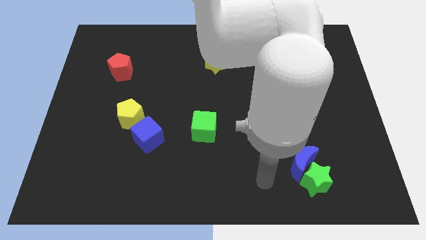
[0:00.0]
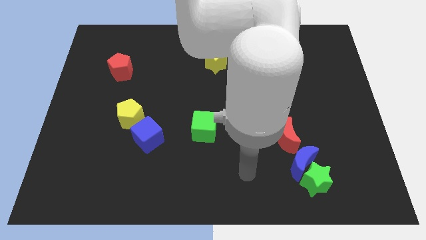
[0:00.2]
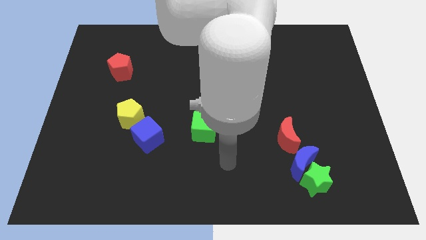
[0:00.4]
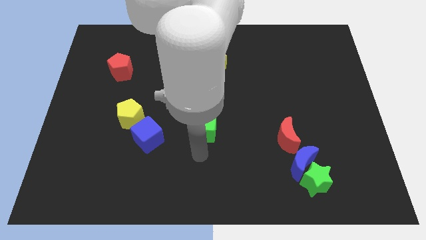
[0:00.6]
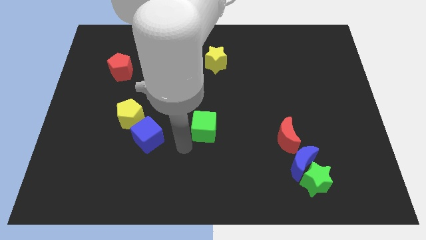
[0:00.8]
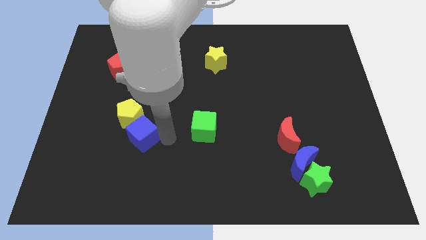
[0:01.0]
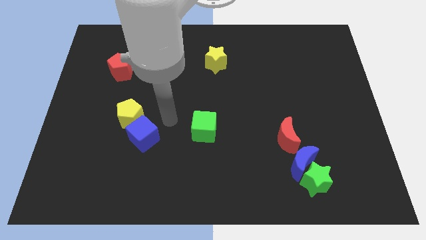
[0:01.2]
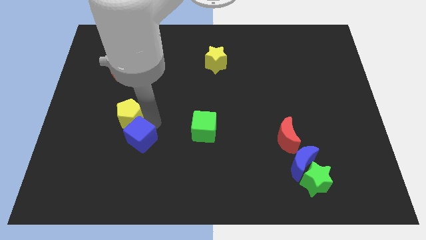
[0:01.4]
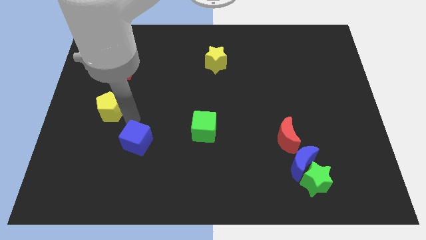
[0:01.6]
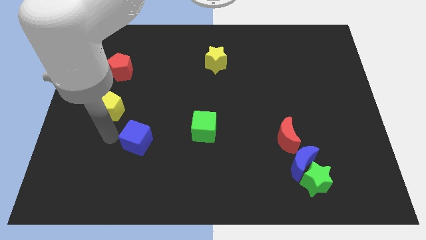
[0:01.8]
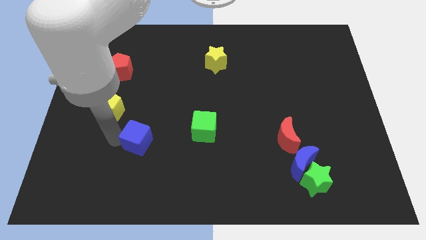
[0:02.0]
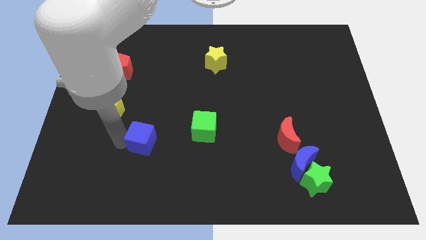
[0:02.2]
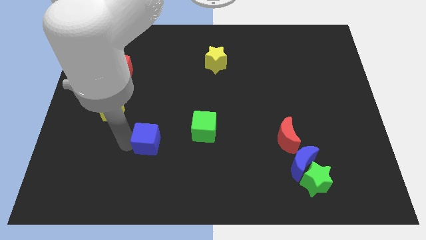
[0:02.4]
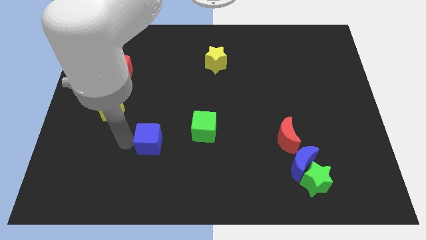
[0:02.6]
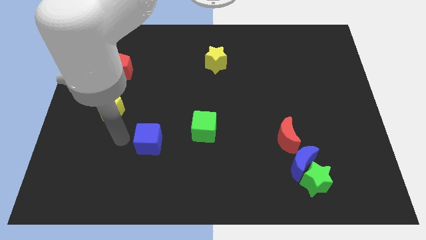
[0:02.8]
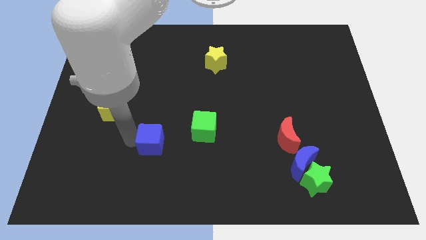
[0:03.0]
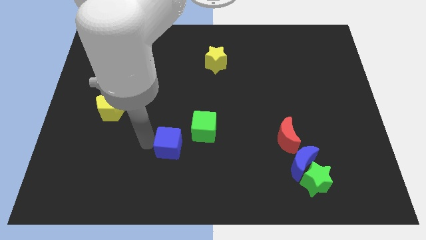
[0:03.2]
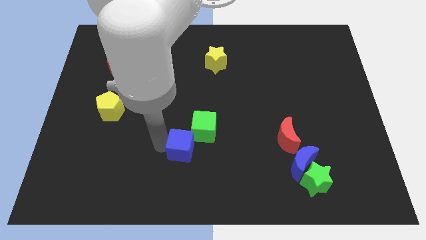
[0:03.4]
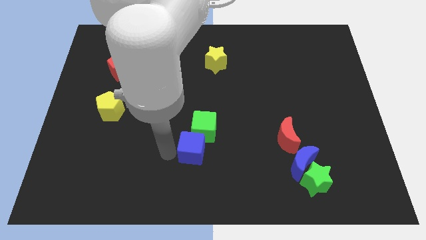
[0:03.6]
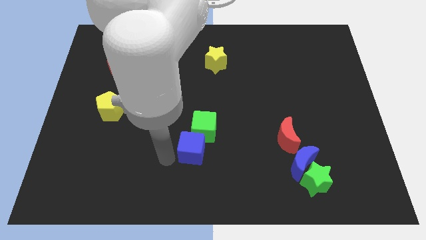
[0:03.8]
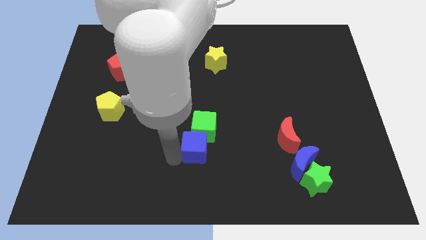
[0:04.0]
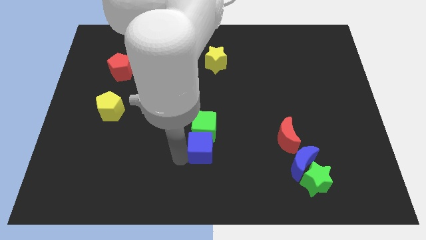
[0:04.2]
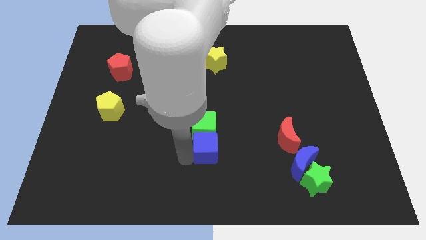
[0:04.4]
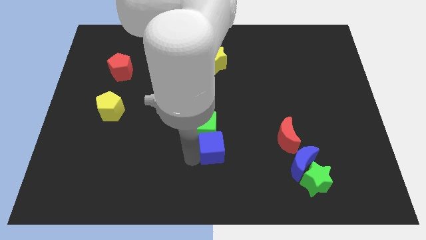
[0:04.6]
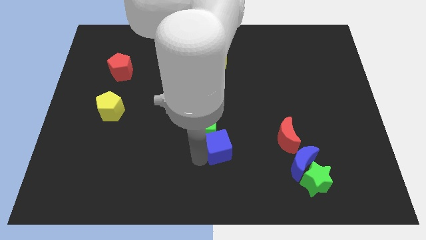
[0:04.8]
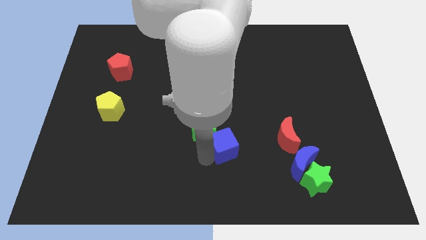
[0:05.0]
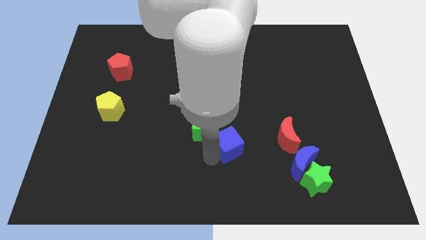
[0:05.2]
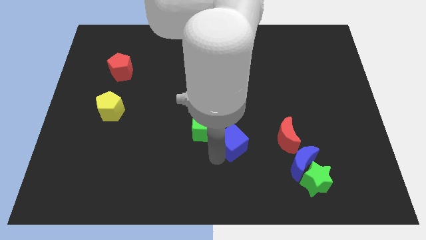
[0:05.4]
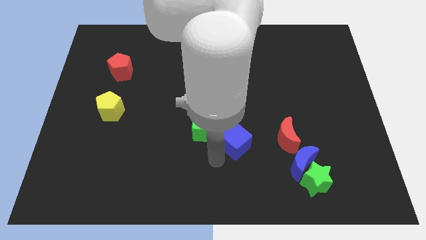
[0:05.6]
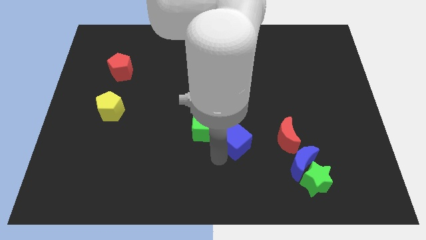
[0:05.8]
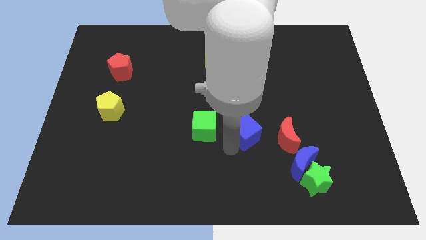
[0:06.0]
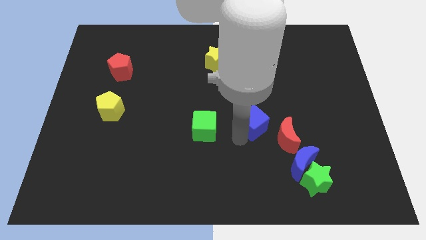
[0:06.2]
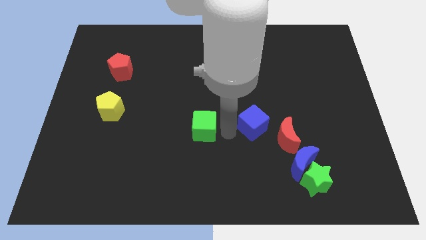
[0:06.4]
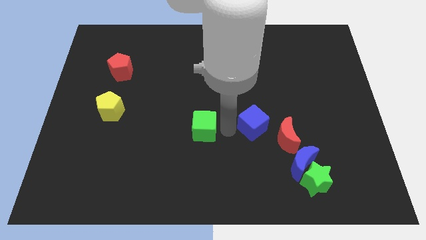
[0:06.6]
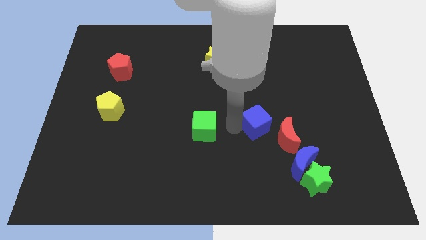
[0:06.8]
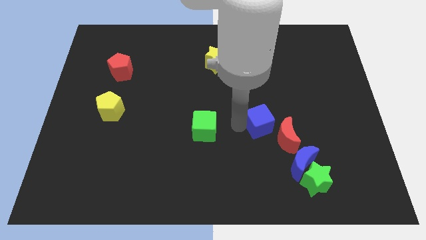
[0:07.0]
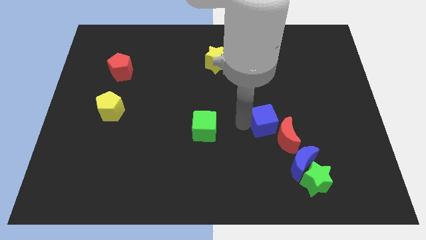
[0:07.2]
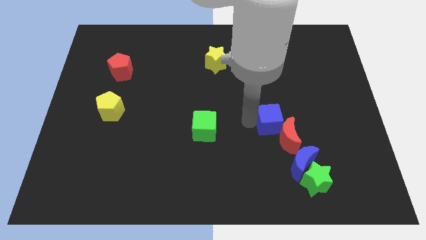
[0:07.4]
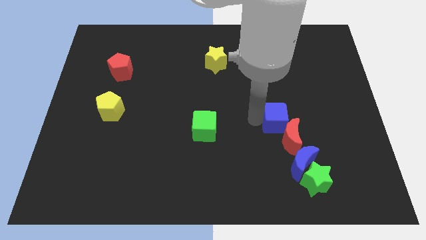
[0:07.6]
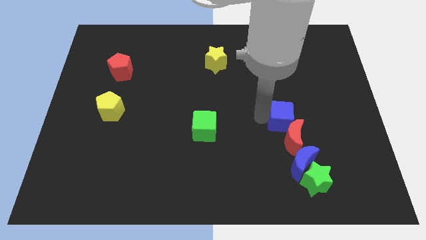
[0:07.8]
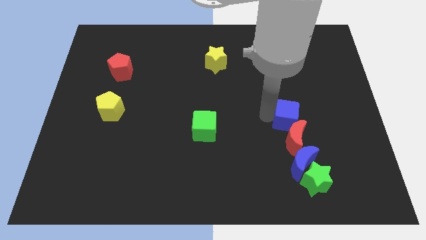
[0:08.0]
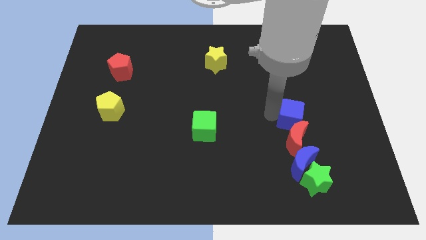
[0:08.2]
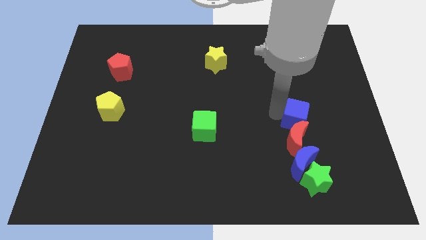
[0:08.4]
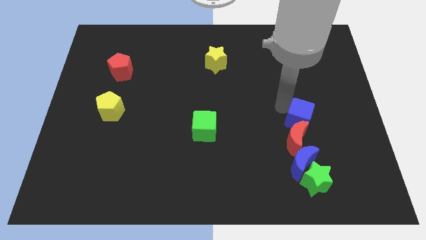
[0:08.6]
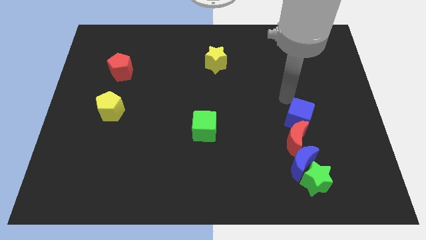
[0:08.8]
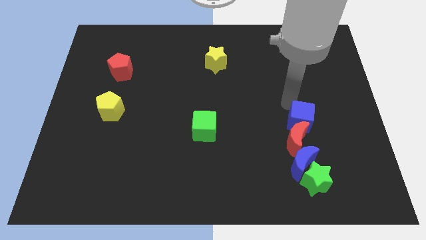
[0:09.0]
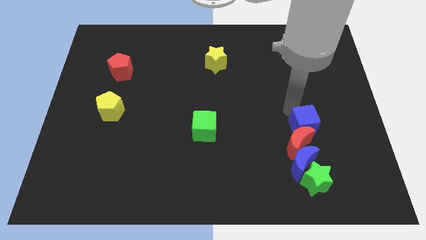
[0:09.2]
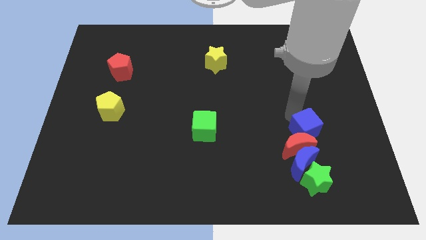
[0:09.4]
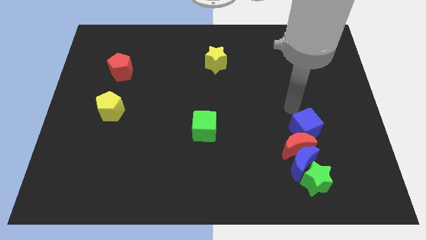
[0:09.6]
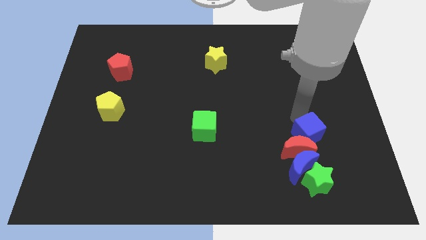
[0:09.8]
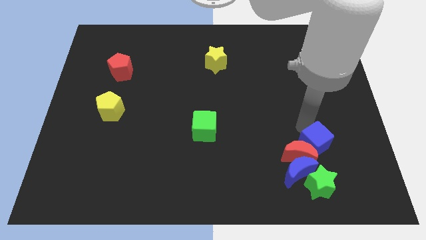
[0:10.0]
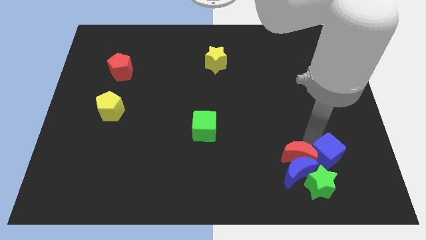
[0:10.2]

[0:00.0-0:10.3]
slide the blue cube to the top right side of the green star
